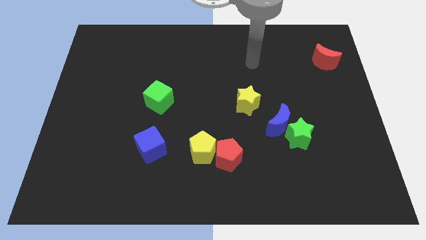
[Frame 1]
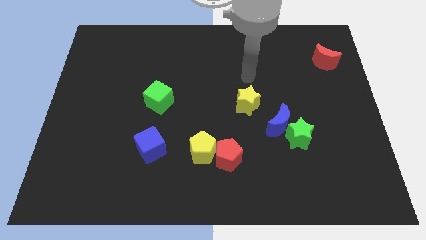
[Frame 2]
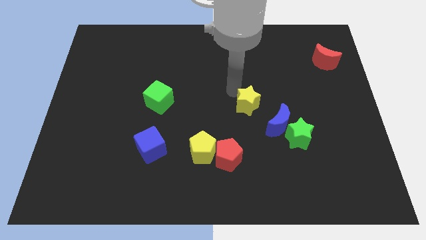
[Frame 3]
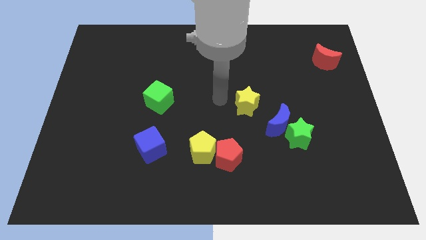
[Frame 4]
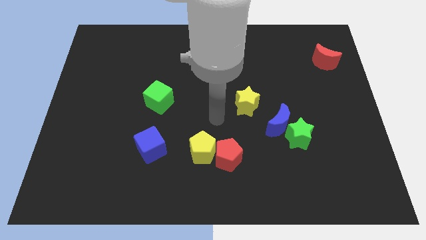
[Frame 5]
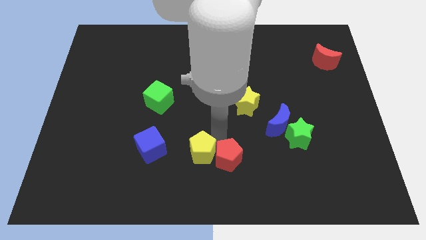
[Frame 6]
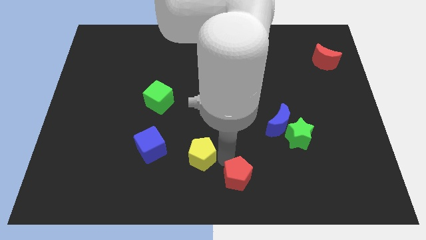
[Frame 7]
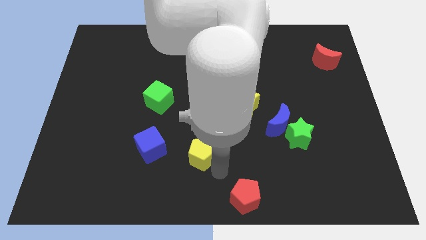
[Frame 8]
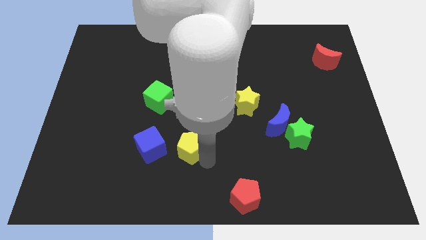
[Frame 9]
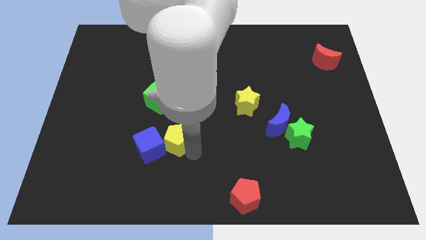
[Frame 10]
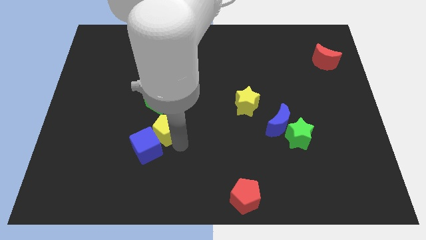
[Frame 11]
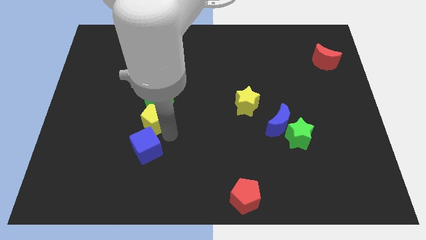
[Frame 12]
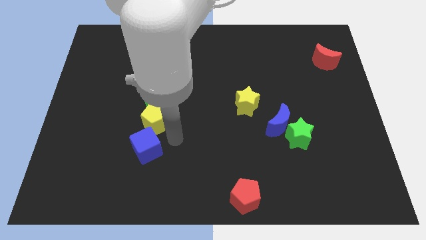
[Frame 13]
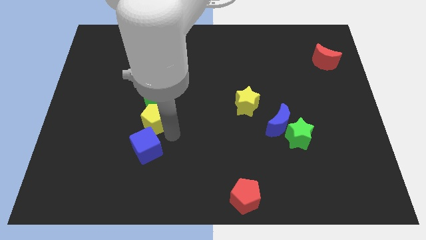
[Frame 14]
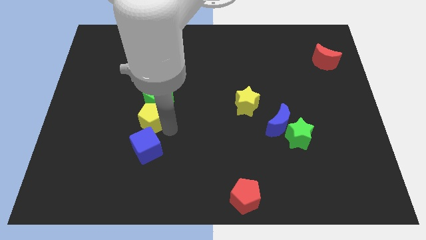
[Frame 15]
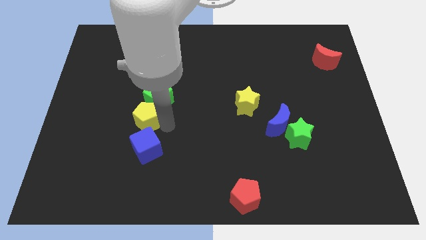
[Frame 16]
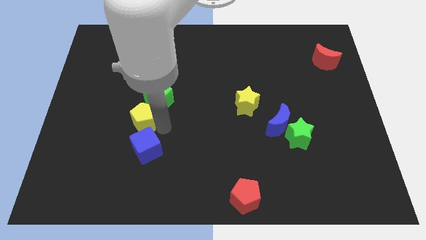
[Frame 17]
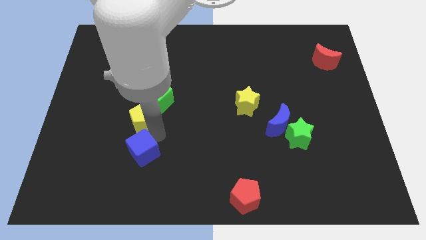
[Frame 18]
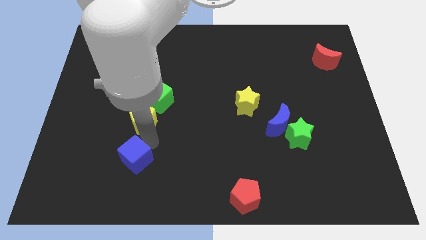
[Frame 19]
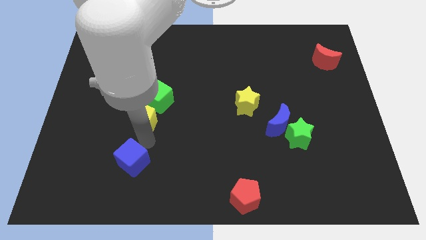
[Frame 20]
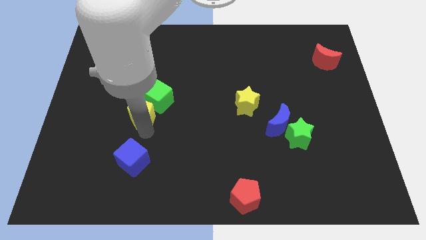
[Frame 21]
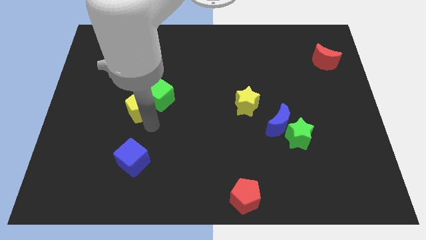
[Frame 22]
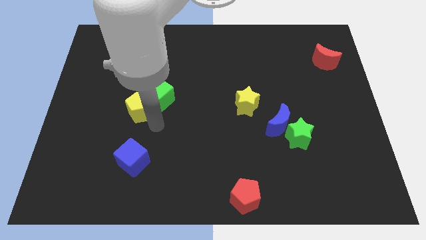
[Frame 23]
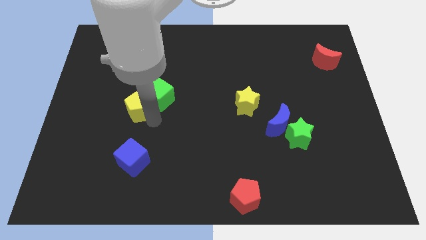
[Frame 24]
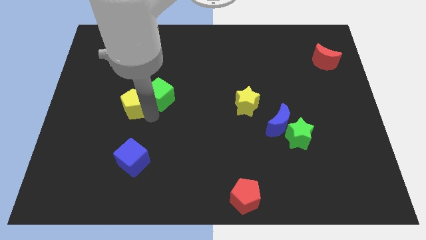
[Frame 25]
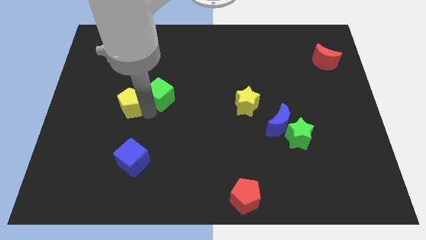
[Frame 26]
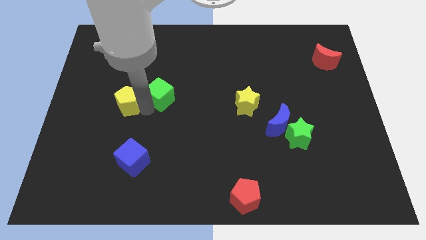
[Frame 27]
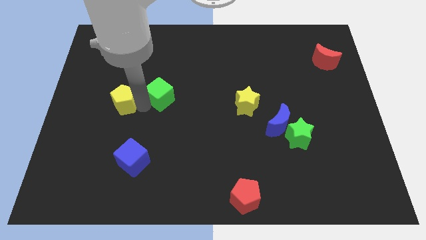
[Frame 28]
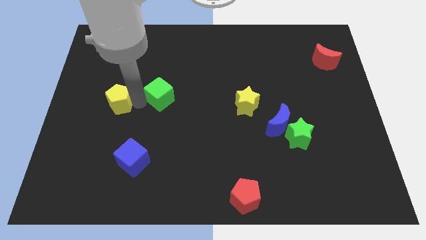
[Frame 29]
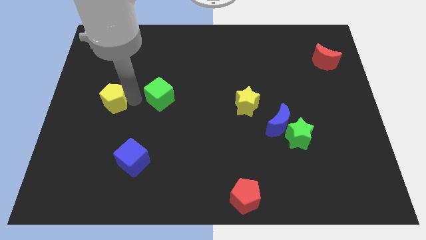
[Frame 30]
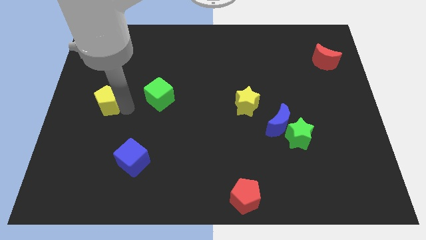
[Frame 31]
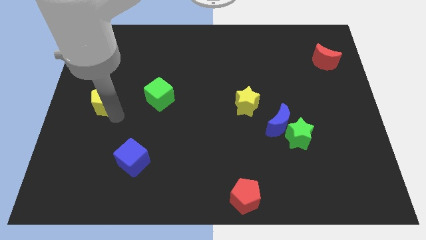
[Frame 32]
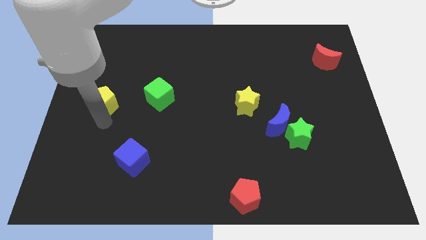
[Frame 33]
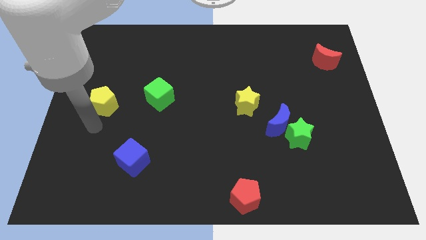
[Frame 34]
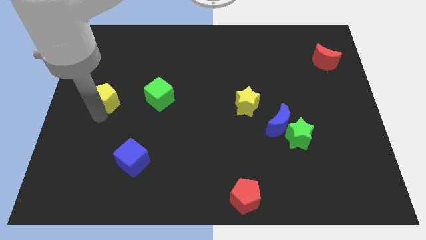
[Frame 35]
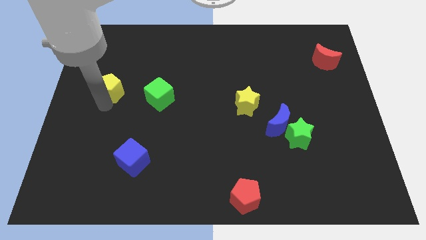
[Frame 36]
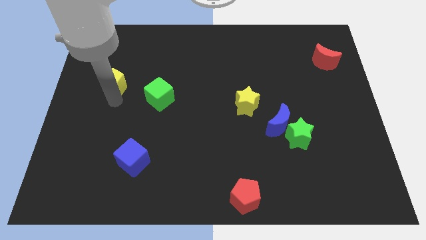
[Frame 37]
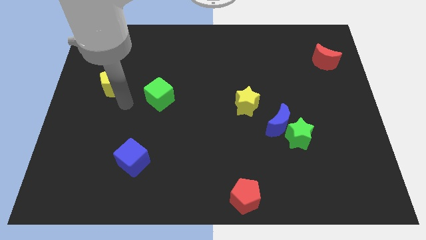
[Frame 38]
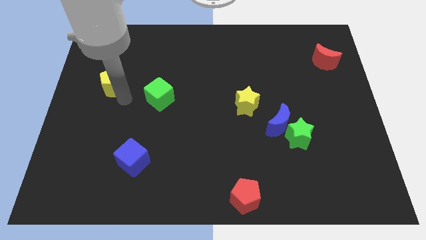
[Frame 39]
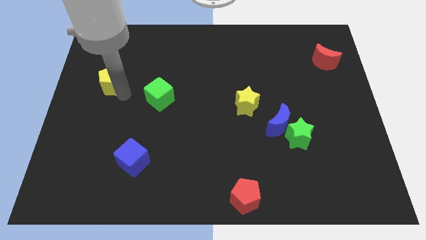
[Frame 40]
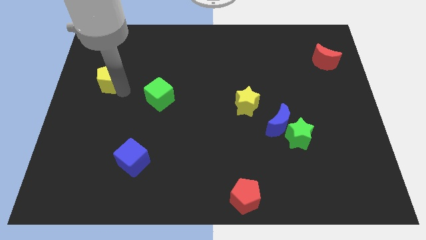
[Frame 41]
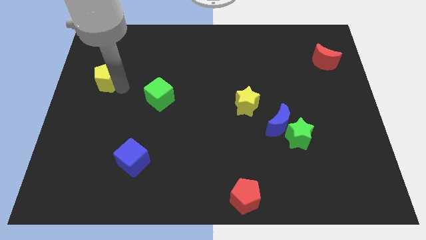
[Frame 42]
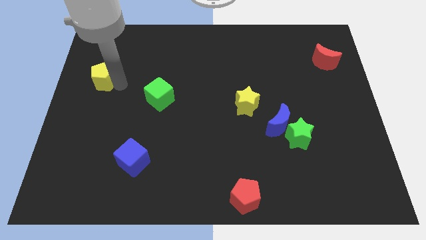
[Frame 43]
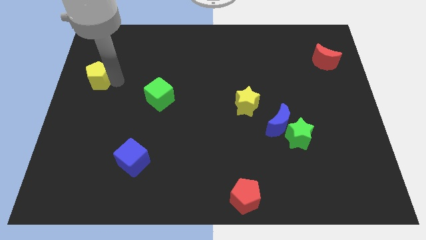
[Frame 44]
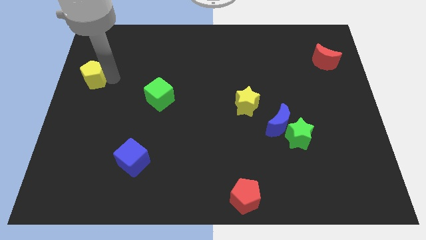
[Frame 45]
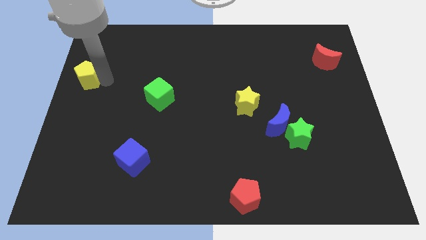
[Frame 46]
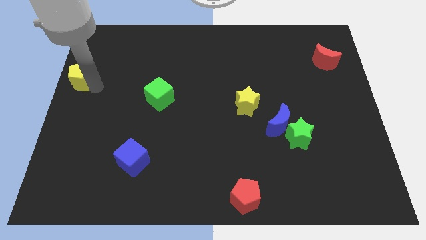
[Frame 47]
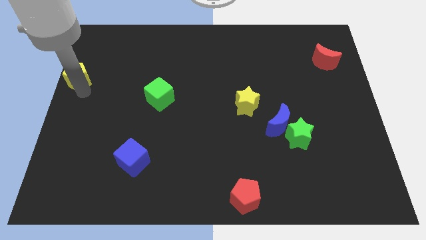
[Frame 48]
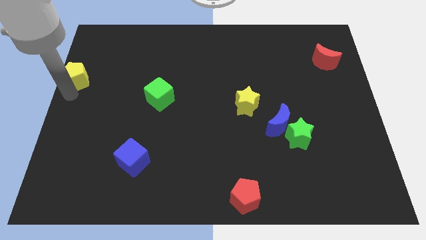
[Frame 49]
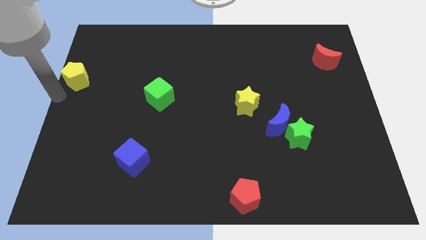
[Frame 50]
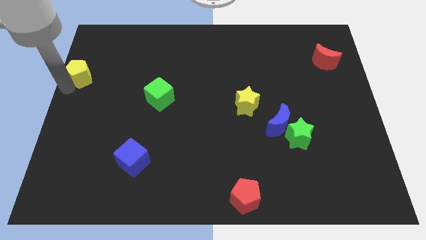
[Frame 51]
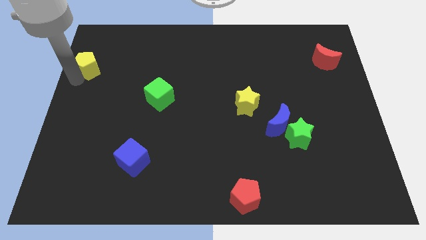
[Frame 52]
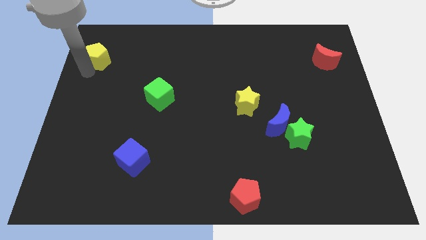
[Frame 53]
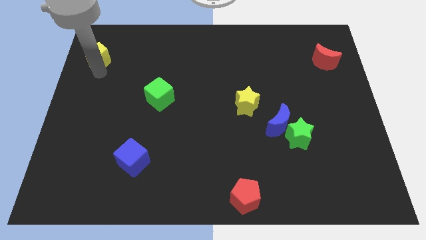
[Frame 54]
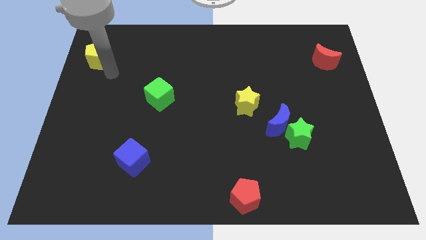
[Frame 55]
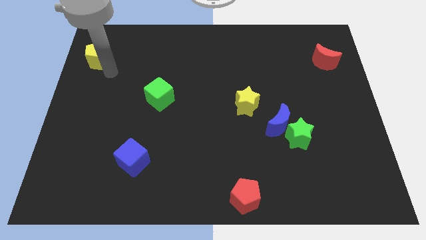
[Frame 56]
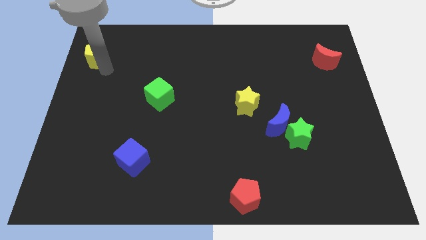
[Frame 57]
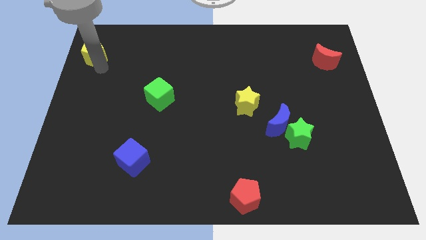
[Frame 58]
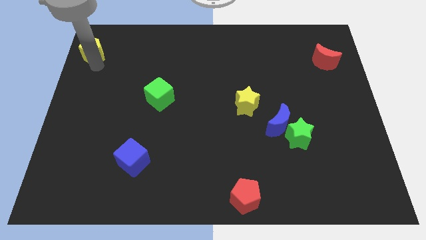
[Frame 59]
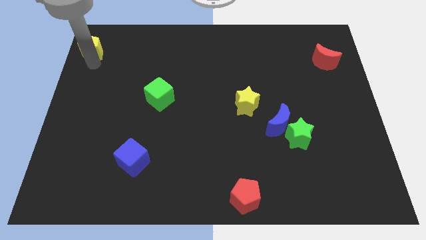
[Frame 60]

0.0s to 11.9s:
move the yellow pentagon to the upper left corner
